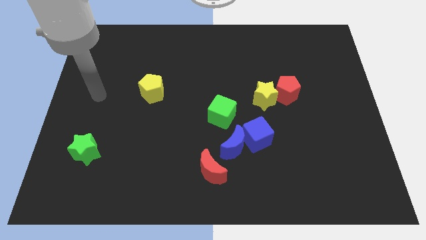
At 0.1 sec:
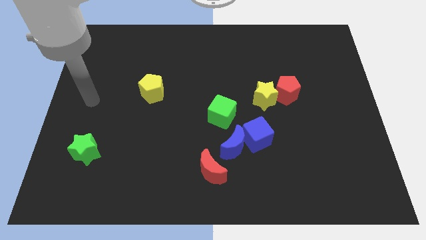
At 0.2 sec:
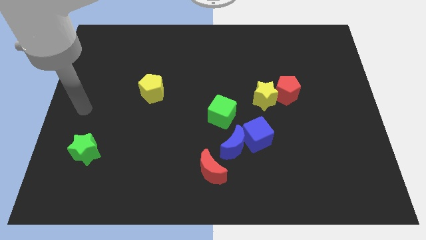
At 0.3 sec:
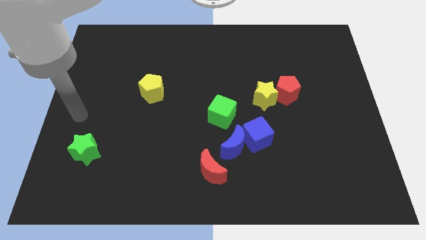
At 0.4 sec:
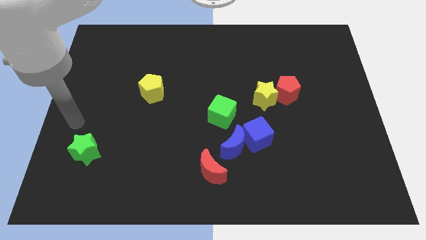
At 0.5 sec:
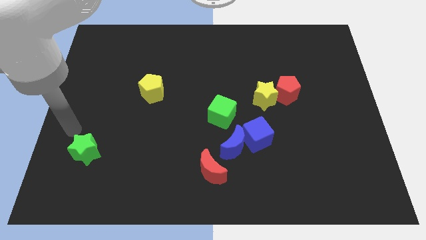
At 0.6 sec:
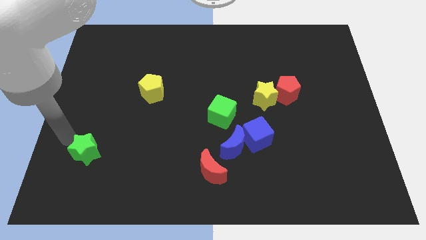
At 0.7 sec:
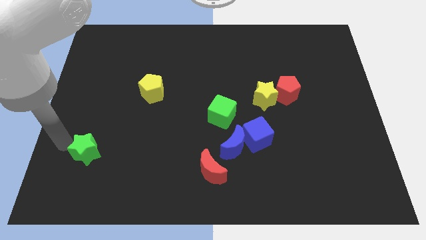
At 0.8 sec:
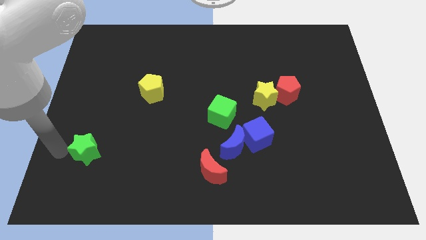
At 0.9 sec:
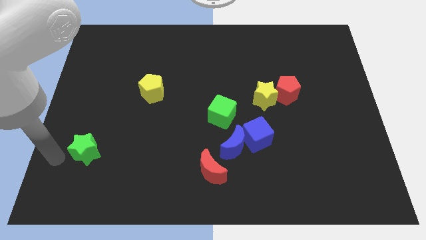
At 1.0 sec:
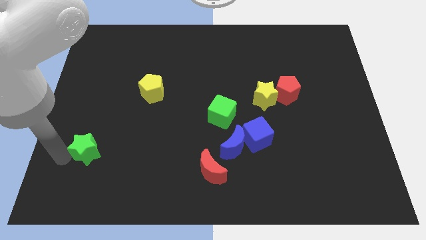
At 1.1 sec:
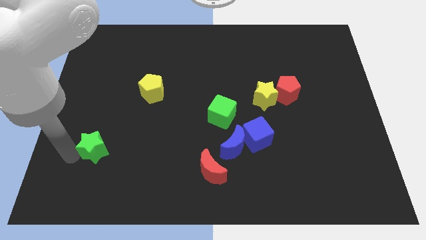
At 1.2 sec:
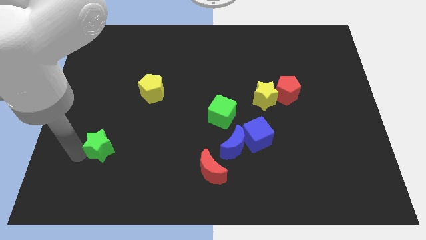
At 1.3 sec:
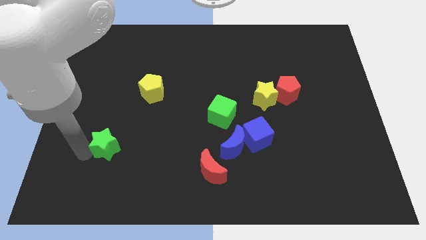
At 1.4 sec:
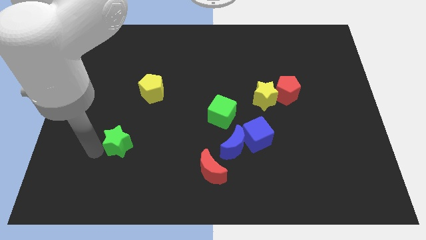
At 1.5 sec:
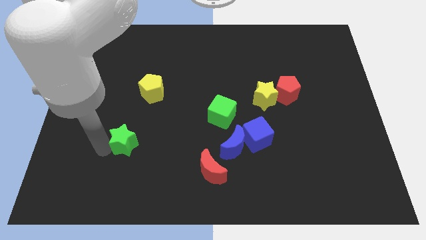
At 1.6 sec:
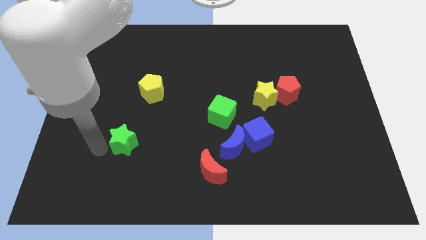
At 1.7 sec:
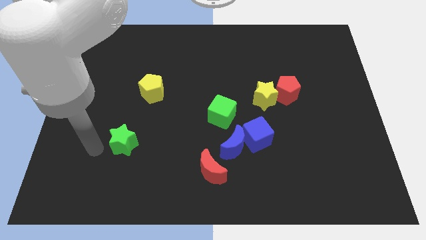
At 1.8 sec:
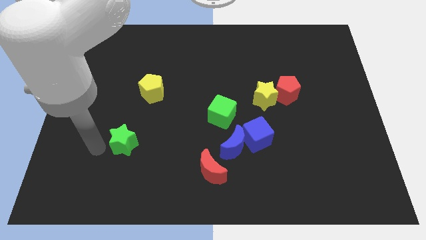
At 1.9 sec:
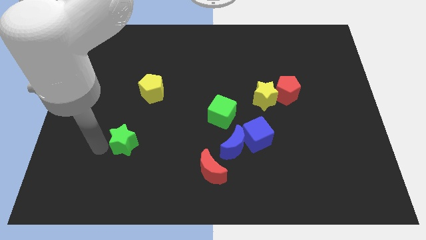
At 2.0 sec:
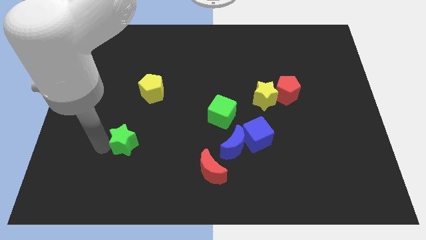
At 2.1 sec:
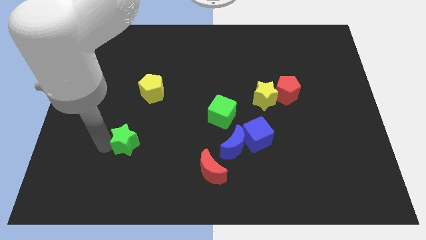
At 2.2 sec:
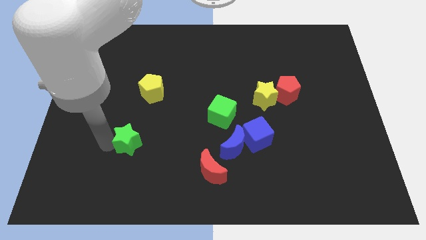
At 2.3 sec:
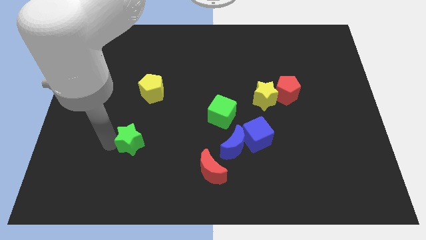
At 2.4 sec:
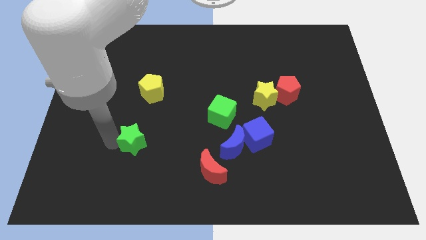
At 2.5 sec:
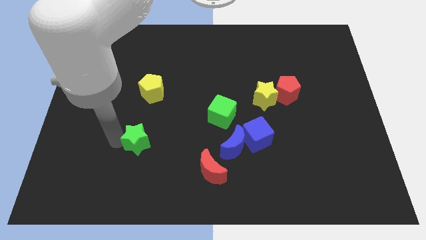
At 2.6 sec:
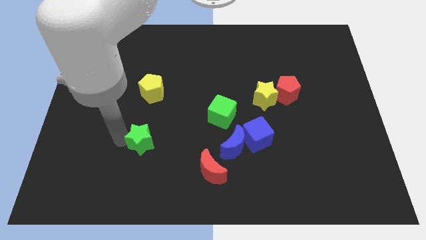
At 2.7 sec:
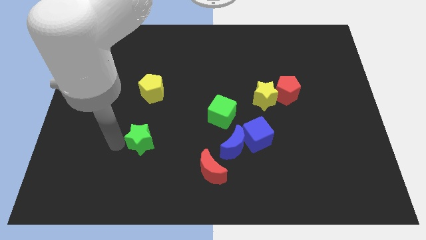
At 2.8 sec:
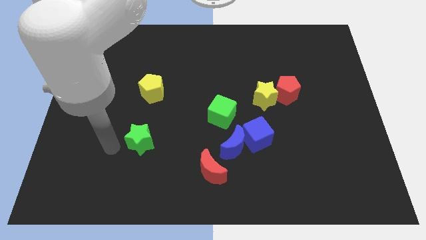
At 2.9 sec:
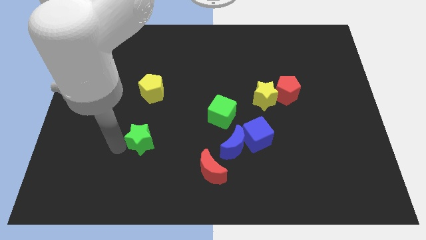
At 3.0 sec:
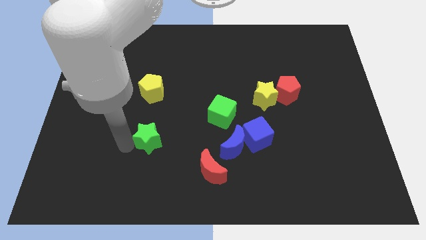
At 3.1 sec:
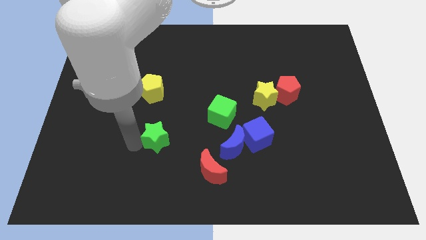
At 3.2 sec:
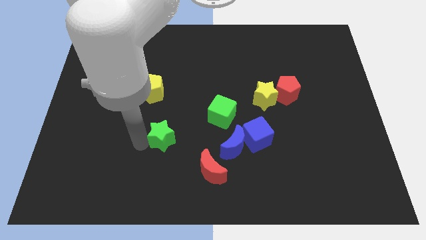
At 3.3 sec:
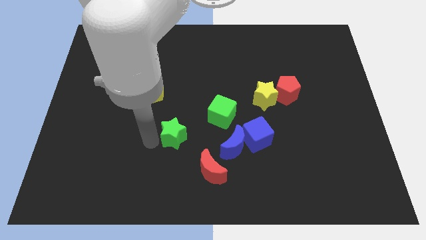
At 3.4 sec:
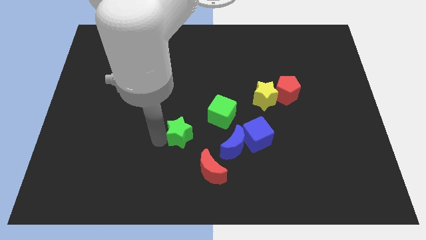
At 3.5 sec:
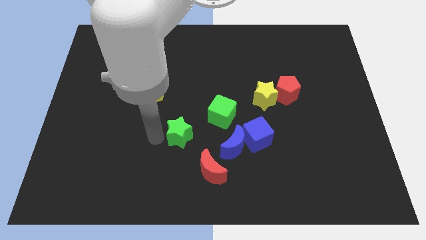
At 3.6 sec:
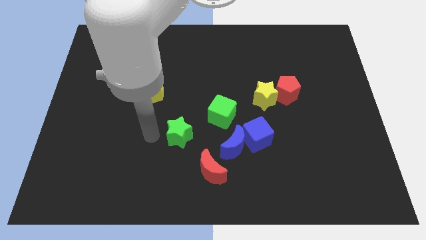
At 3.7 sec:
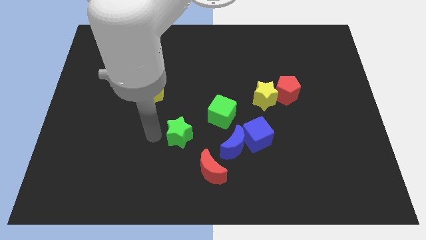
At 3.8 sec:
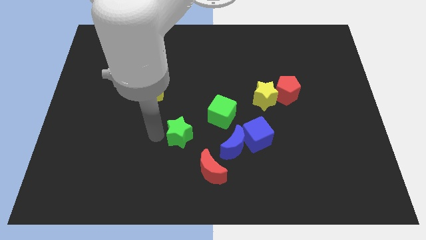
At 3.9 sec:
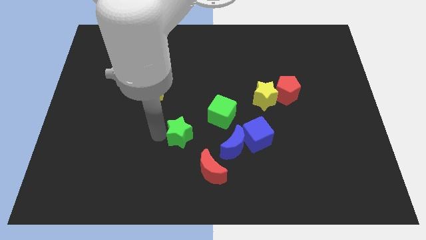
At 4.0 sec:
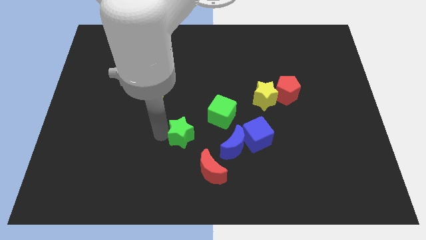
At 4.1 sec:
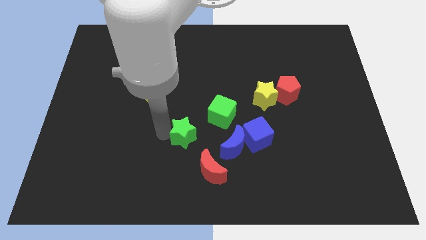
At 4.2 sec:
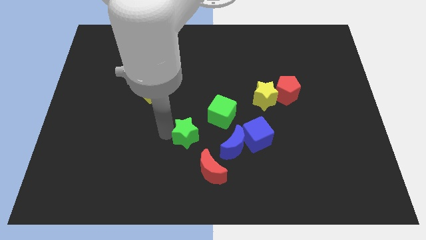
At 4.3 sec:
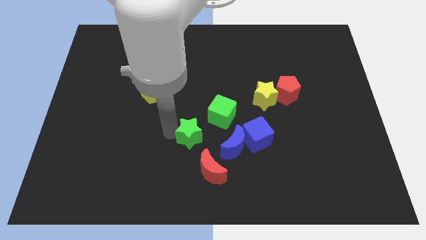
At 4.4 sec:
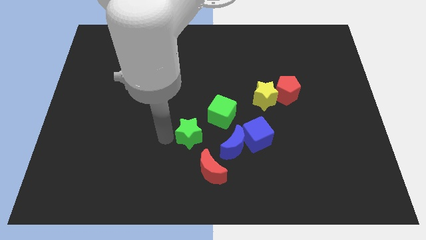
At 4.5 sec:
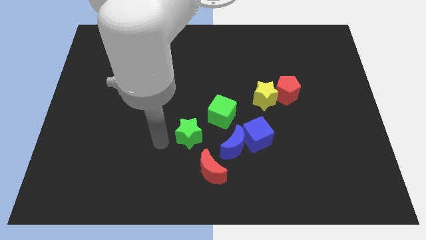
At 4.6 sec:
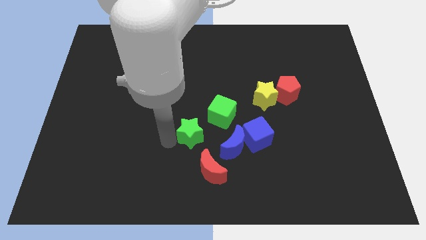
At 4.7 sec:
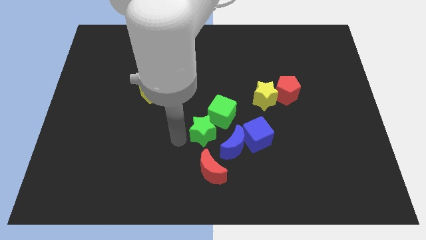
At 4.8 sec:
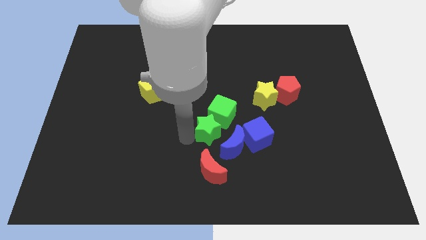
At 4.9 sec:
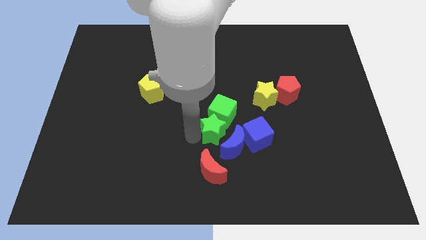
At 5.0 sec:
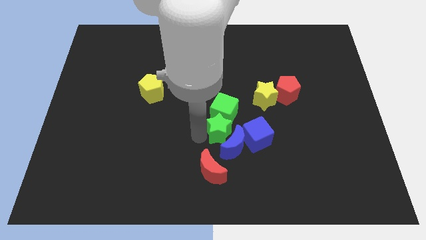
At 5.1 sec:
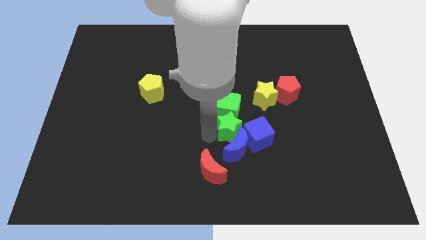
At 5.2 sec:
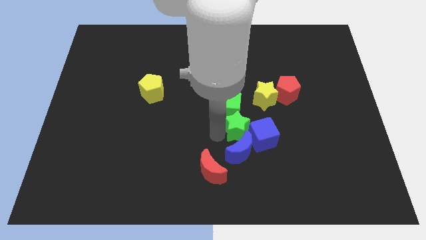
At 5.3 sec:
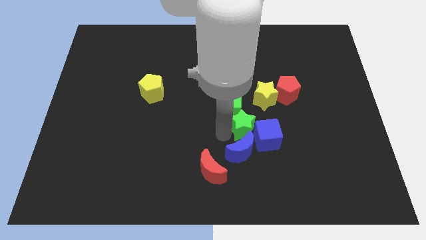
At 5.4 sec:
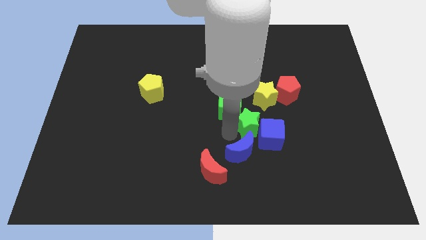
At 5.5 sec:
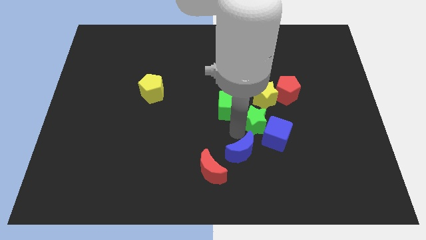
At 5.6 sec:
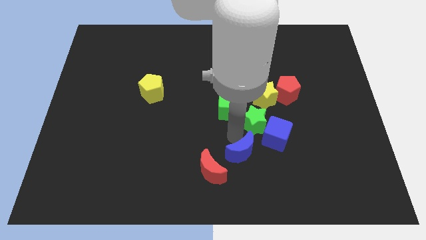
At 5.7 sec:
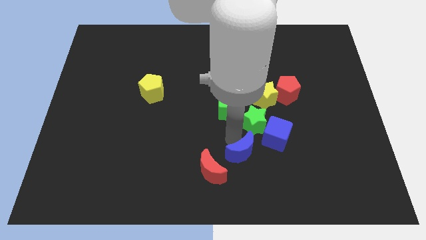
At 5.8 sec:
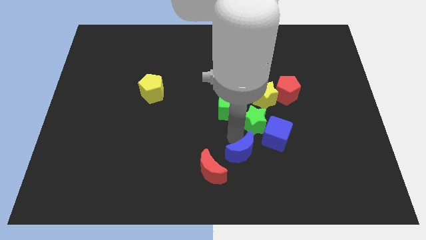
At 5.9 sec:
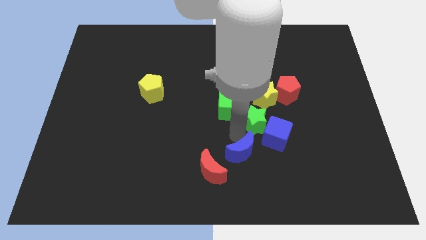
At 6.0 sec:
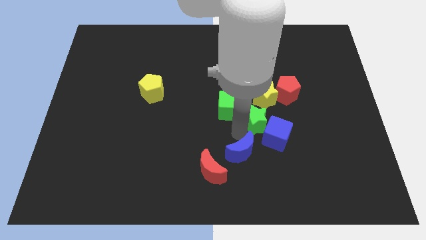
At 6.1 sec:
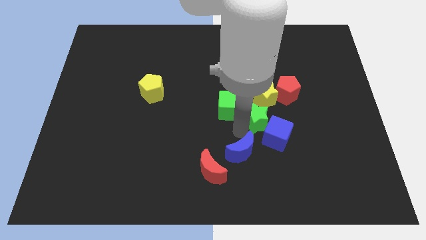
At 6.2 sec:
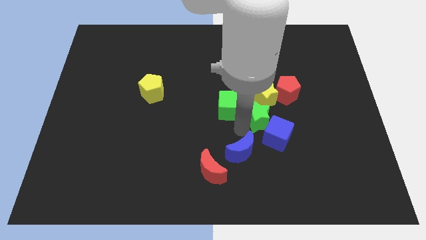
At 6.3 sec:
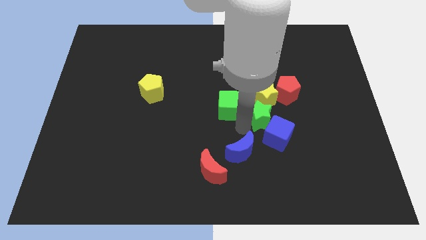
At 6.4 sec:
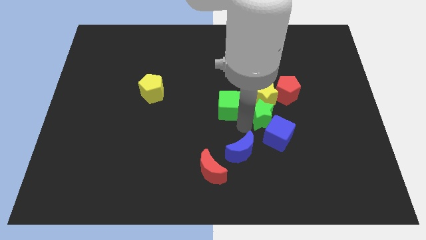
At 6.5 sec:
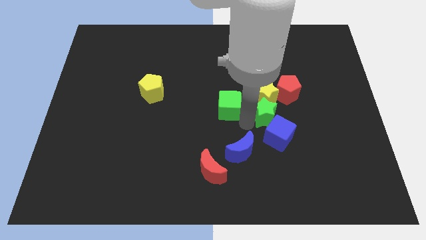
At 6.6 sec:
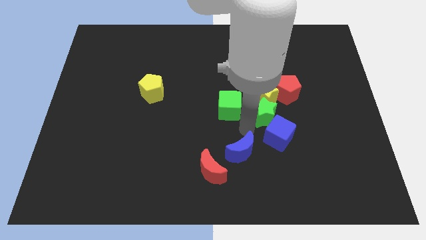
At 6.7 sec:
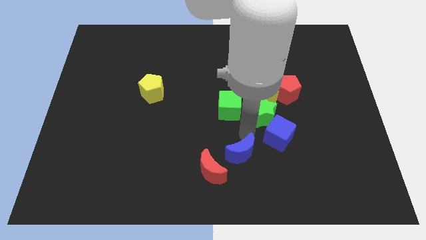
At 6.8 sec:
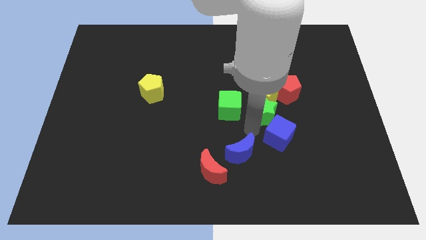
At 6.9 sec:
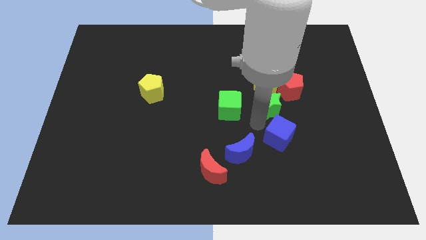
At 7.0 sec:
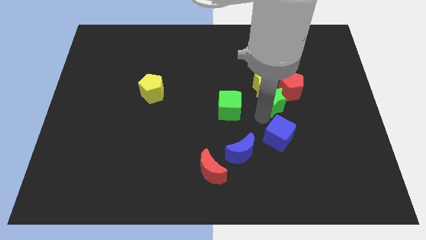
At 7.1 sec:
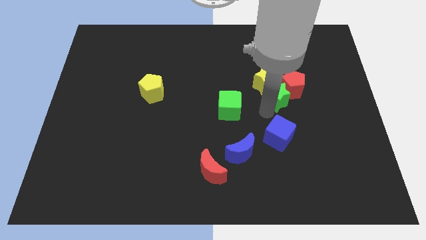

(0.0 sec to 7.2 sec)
move the green star next to the red pentagon

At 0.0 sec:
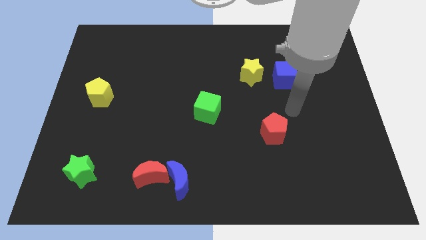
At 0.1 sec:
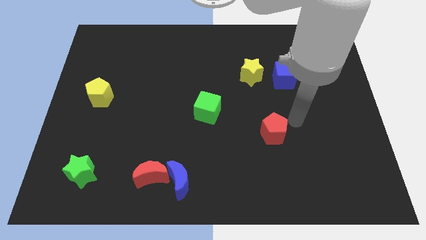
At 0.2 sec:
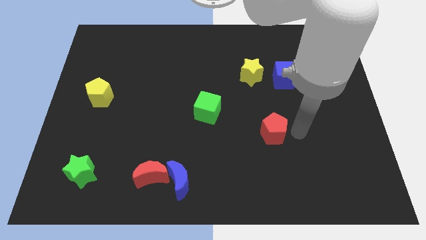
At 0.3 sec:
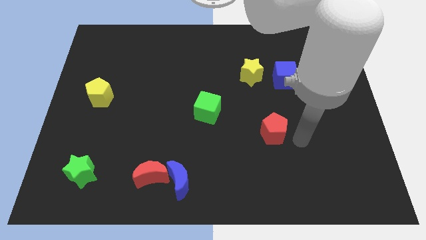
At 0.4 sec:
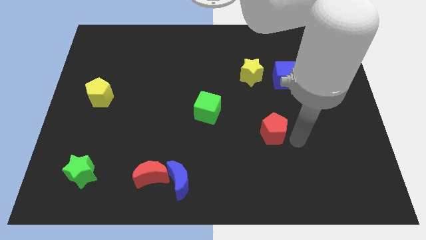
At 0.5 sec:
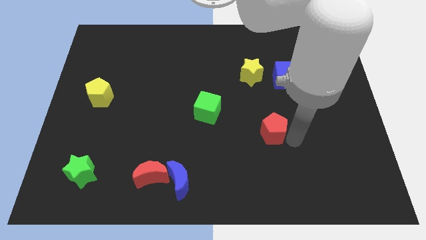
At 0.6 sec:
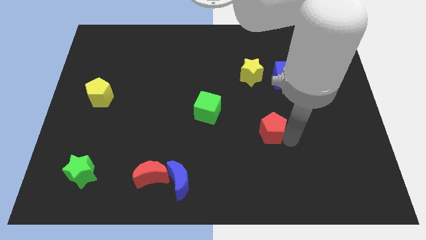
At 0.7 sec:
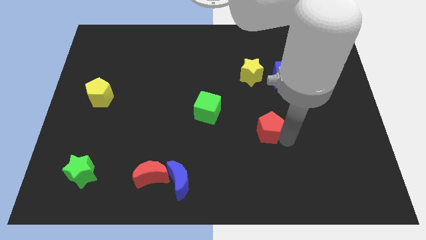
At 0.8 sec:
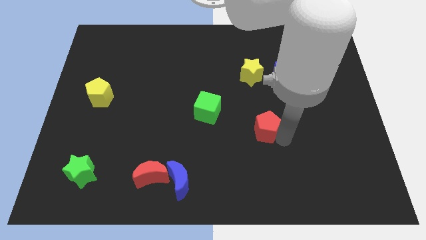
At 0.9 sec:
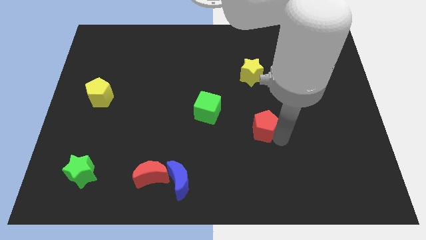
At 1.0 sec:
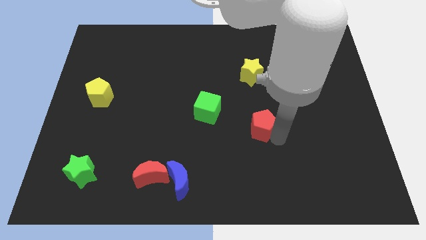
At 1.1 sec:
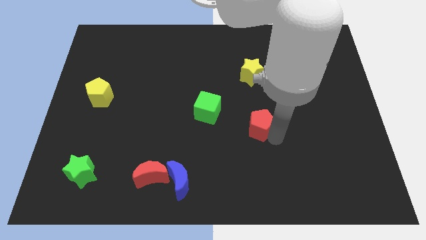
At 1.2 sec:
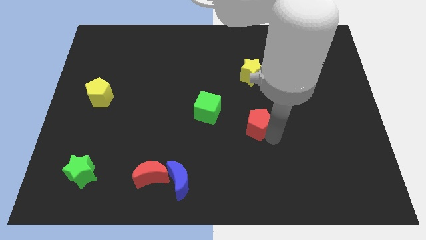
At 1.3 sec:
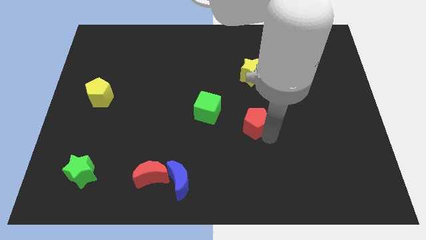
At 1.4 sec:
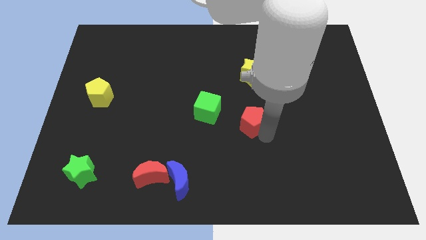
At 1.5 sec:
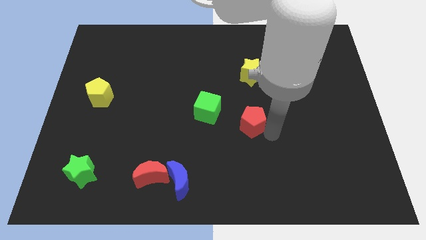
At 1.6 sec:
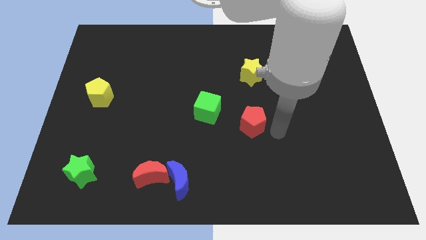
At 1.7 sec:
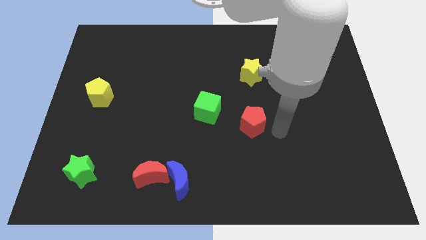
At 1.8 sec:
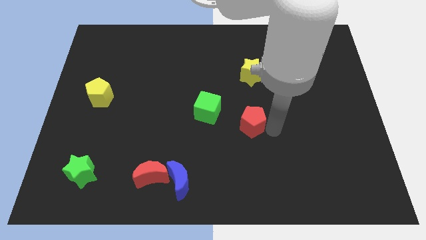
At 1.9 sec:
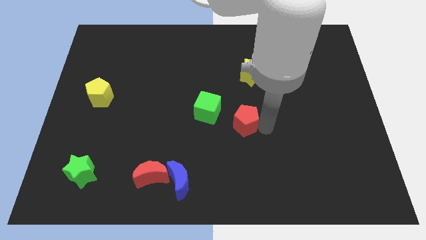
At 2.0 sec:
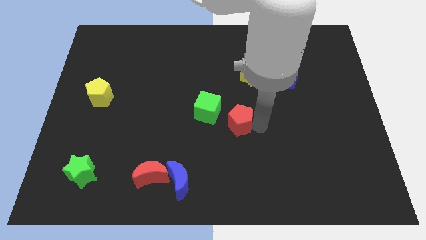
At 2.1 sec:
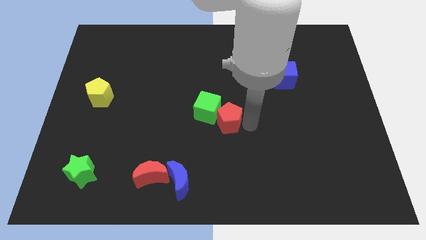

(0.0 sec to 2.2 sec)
push the red pentagon to the green cube
